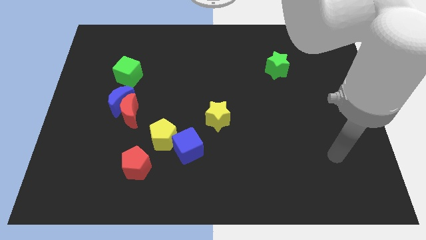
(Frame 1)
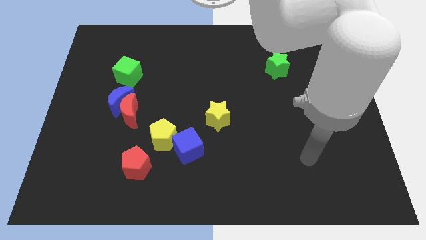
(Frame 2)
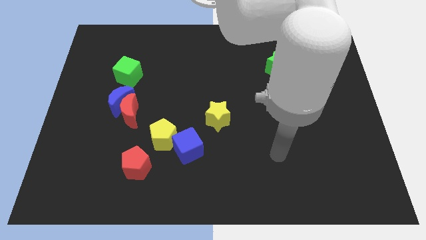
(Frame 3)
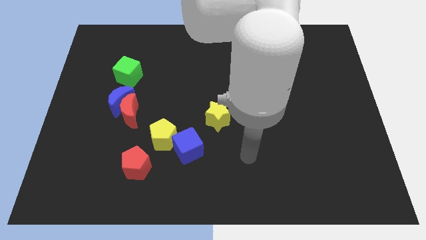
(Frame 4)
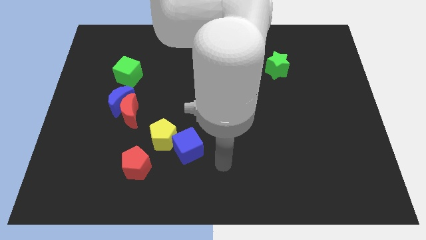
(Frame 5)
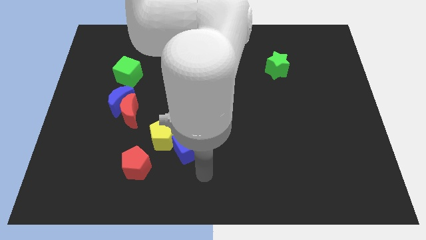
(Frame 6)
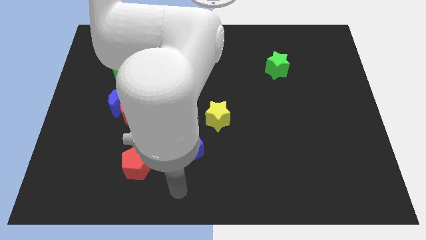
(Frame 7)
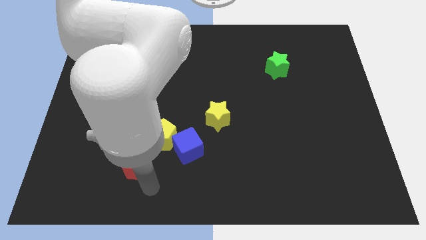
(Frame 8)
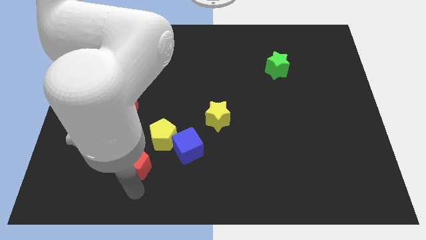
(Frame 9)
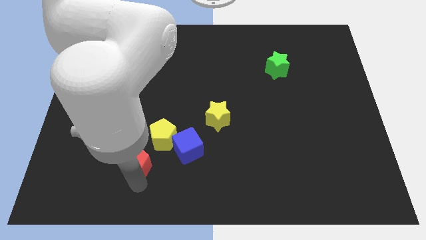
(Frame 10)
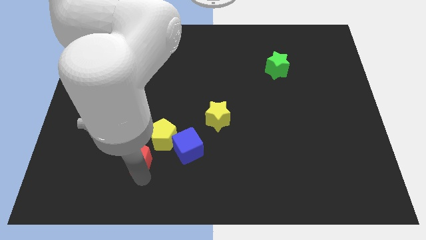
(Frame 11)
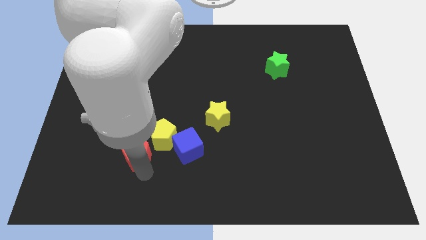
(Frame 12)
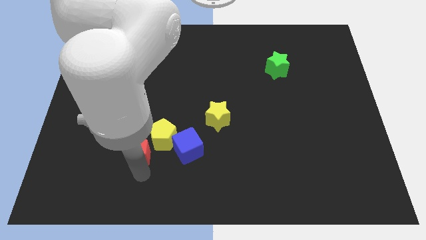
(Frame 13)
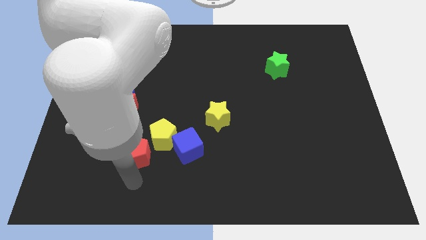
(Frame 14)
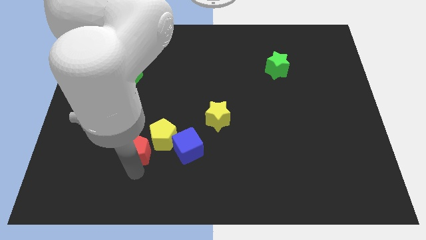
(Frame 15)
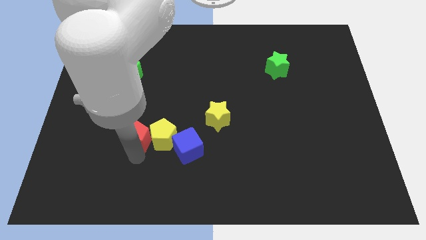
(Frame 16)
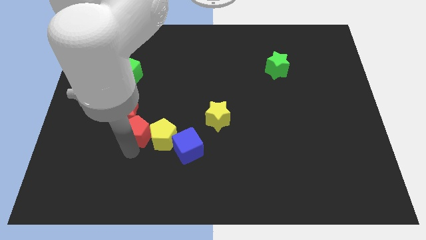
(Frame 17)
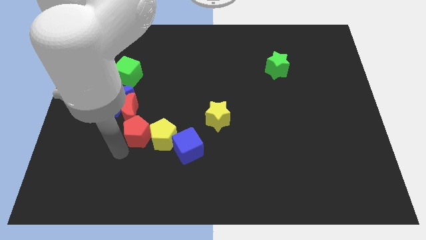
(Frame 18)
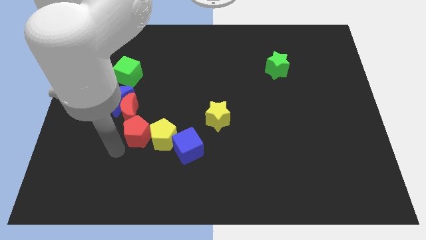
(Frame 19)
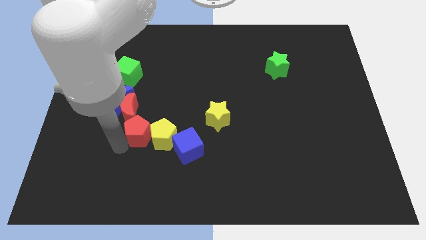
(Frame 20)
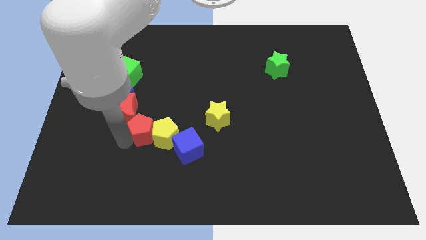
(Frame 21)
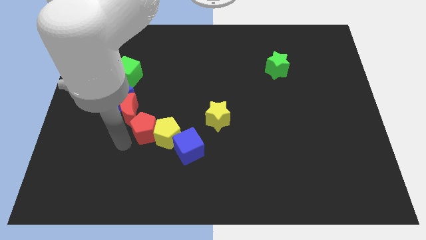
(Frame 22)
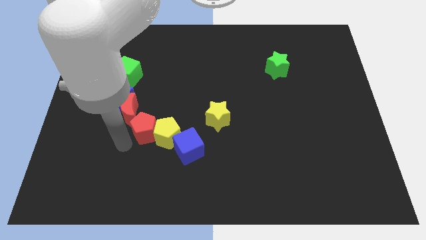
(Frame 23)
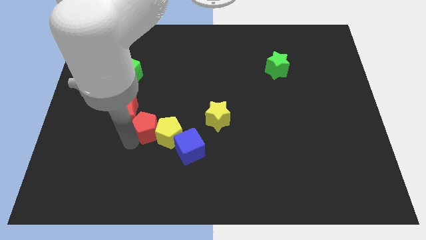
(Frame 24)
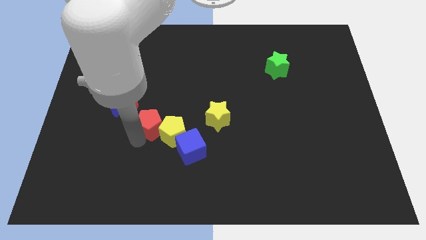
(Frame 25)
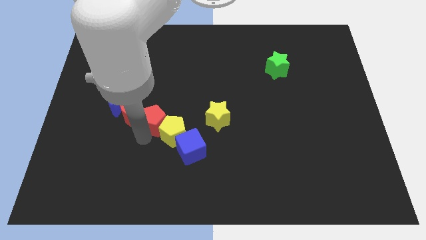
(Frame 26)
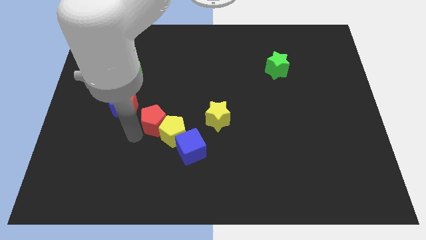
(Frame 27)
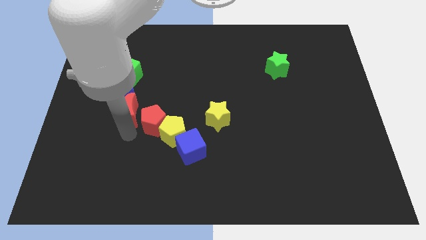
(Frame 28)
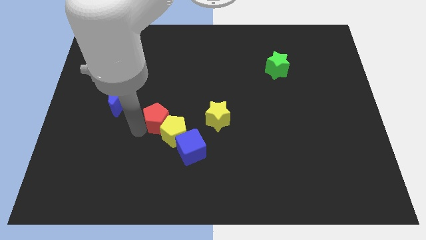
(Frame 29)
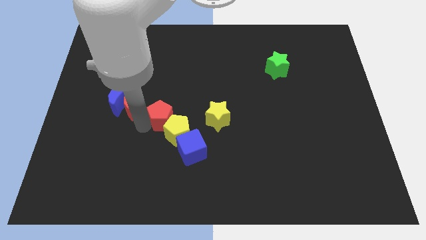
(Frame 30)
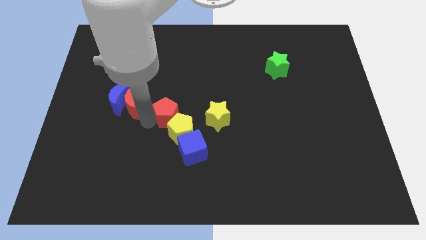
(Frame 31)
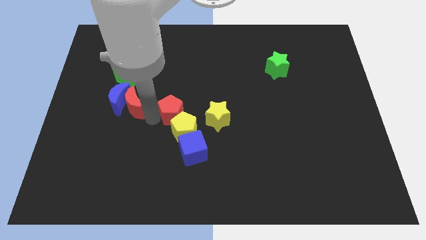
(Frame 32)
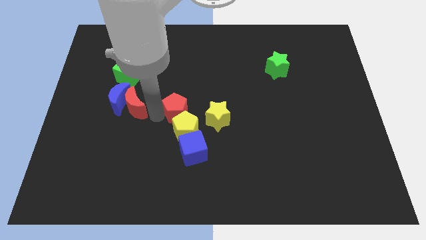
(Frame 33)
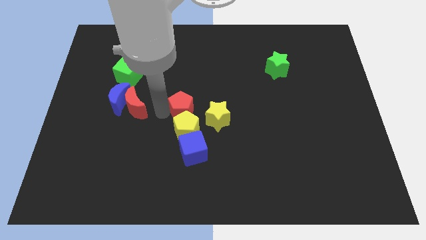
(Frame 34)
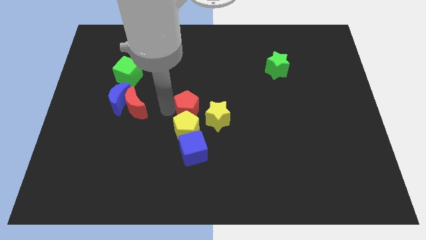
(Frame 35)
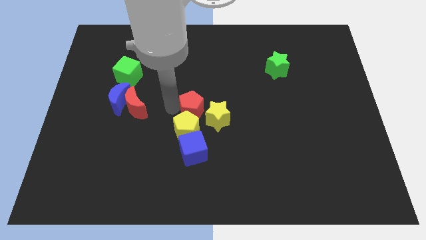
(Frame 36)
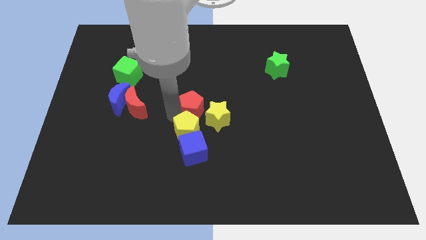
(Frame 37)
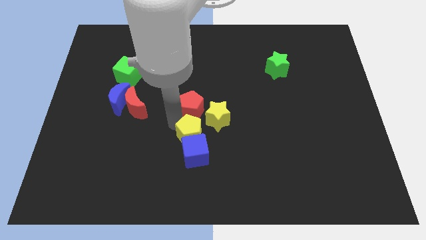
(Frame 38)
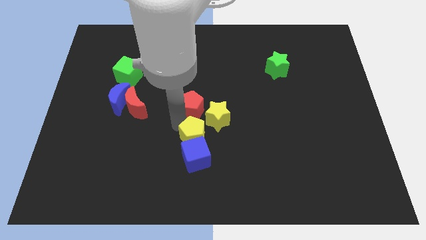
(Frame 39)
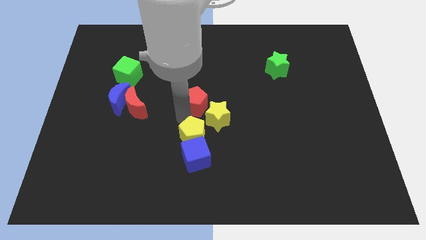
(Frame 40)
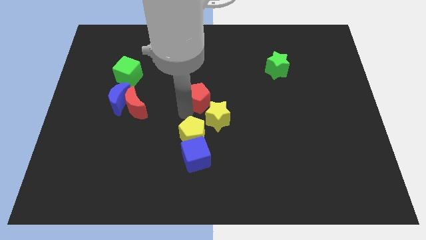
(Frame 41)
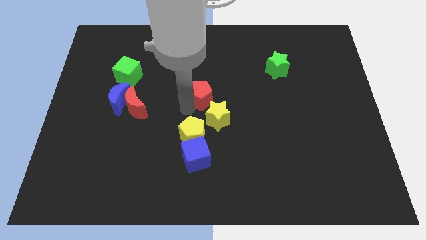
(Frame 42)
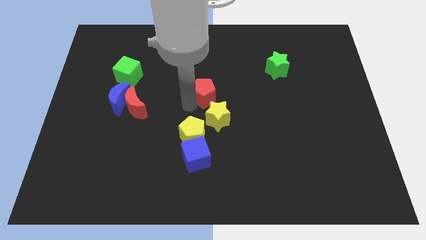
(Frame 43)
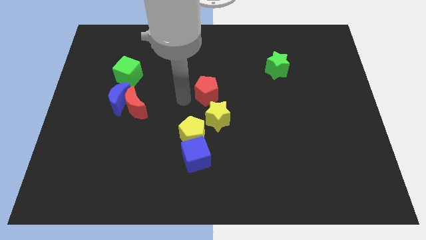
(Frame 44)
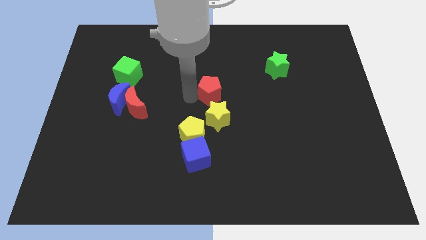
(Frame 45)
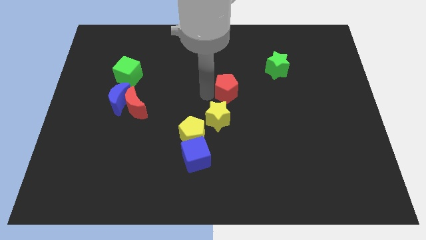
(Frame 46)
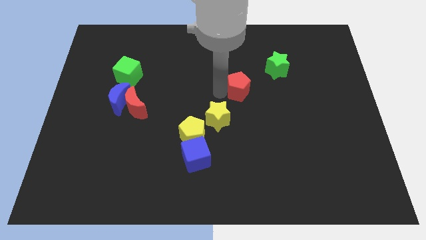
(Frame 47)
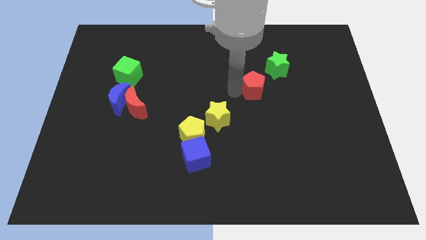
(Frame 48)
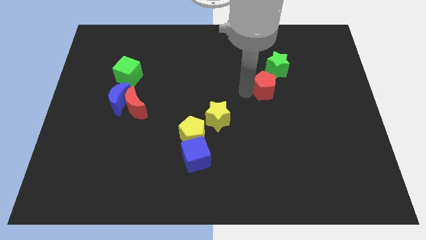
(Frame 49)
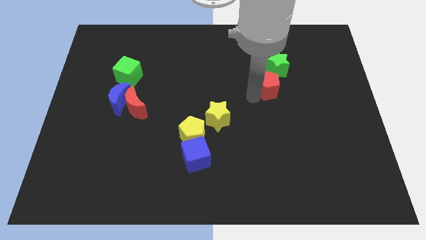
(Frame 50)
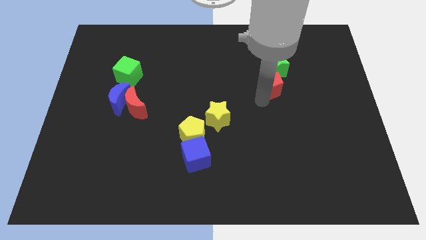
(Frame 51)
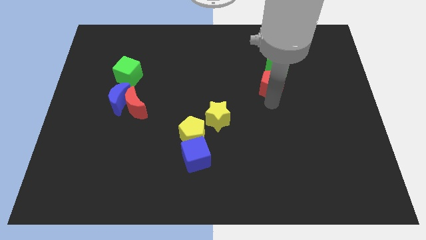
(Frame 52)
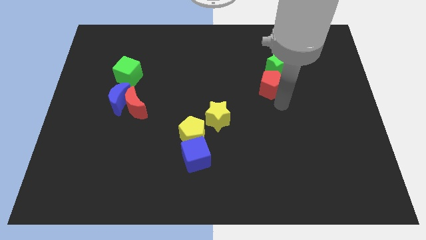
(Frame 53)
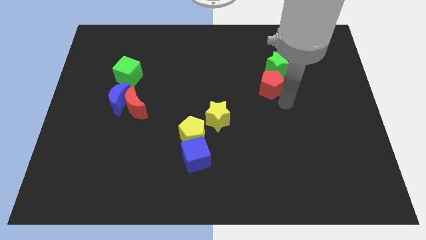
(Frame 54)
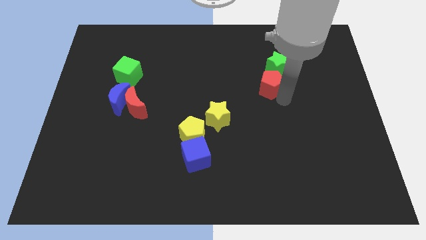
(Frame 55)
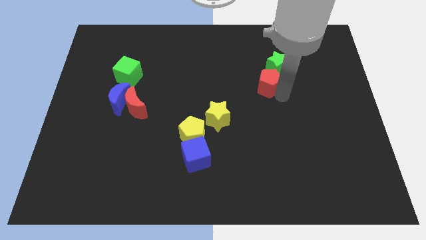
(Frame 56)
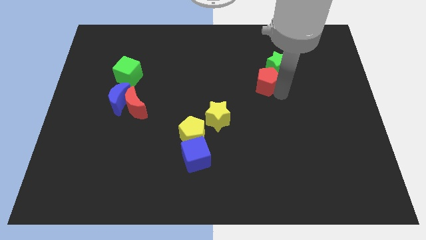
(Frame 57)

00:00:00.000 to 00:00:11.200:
move the red pentagon to the green star
